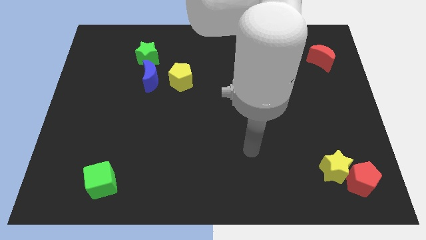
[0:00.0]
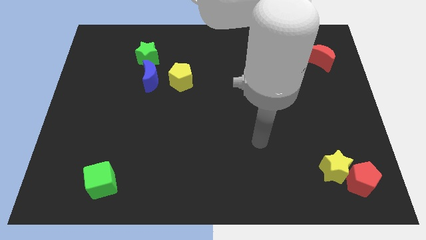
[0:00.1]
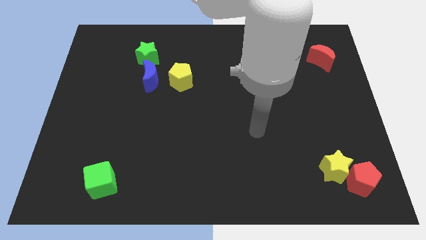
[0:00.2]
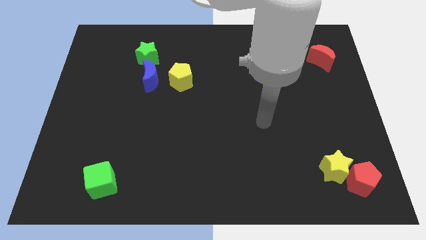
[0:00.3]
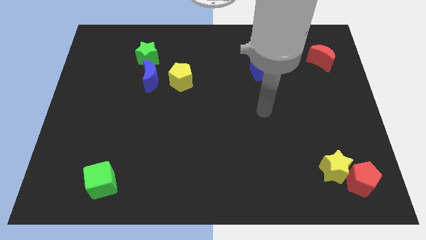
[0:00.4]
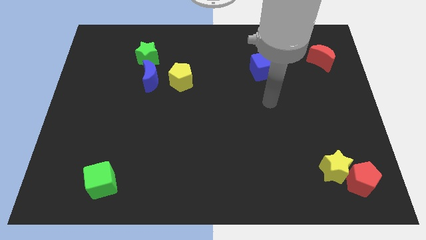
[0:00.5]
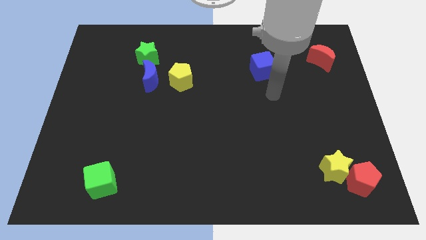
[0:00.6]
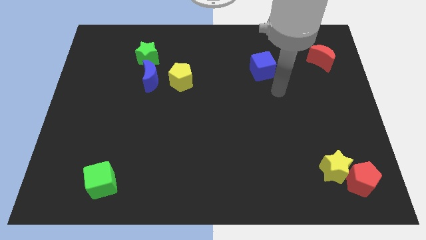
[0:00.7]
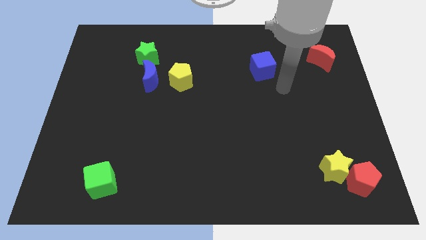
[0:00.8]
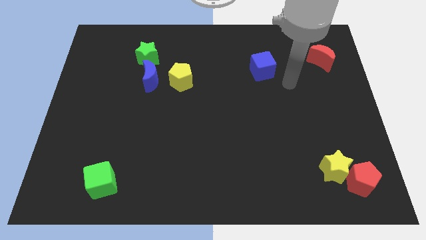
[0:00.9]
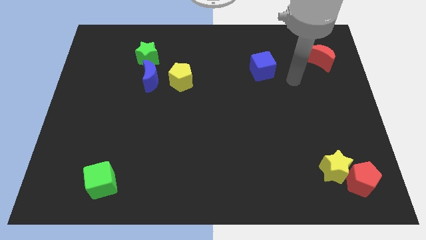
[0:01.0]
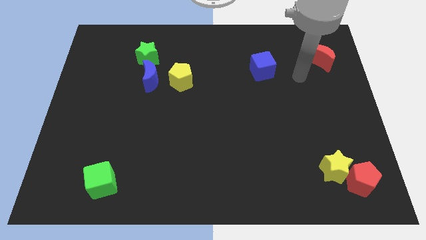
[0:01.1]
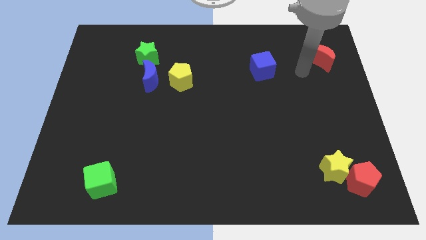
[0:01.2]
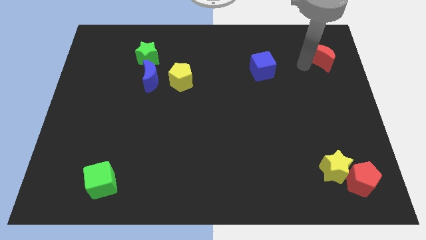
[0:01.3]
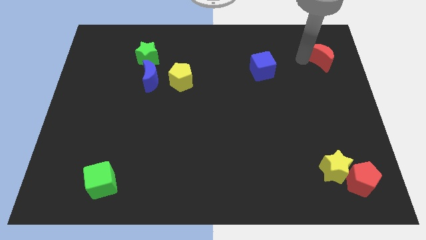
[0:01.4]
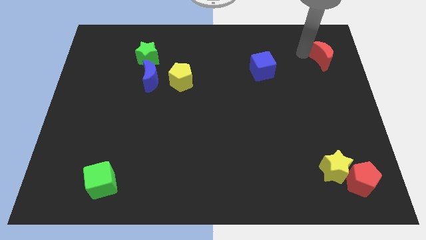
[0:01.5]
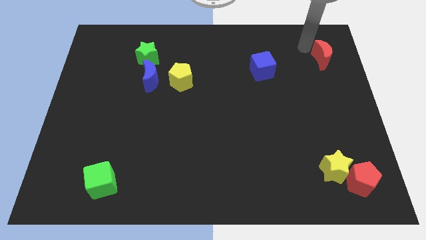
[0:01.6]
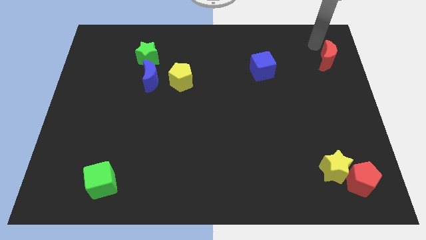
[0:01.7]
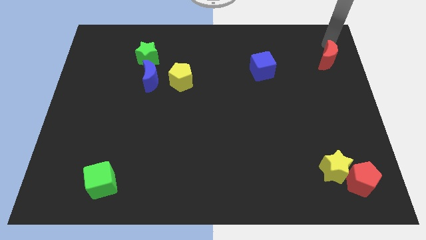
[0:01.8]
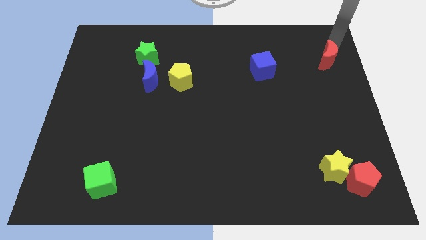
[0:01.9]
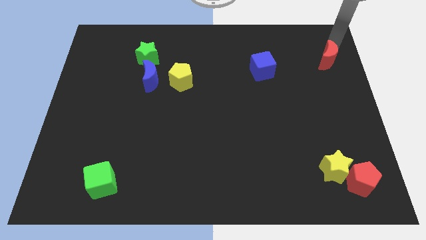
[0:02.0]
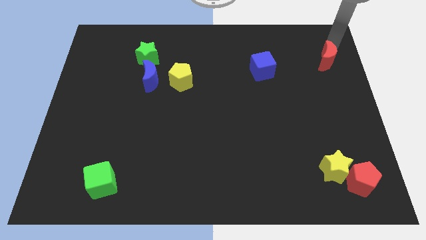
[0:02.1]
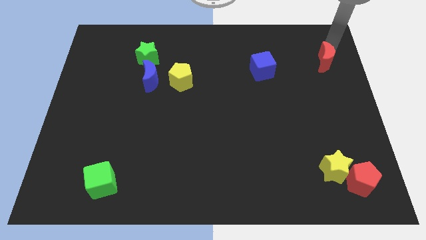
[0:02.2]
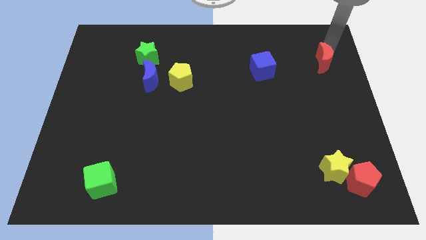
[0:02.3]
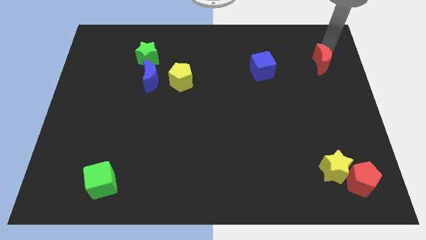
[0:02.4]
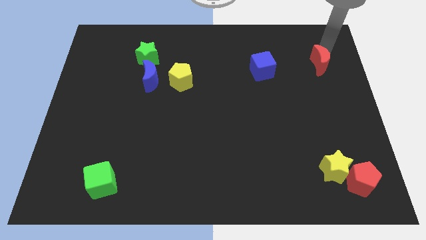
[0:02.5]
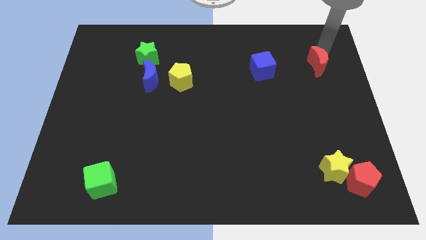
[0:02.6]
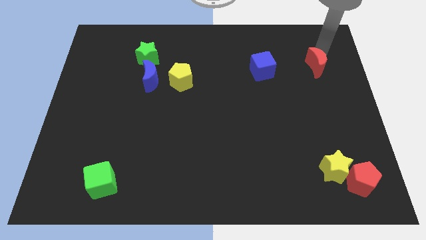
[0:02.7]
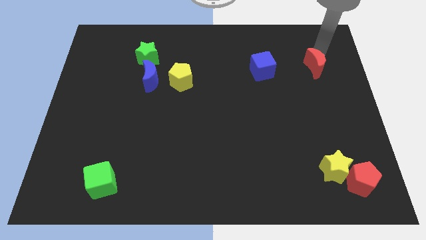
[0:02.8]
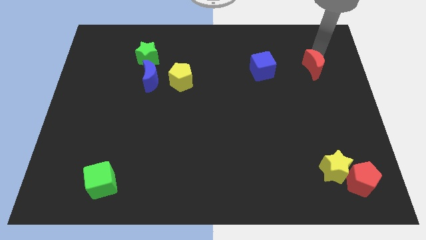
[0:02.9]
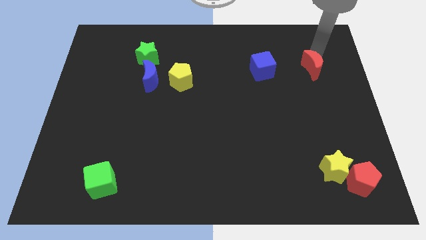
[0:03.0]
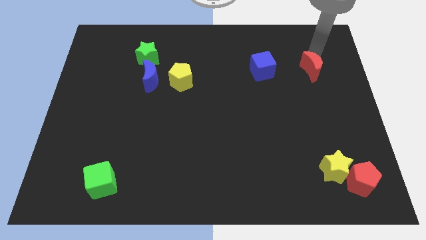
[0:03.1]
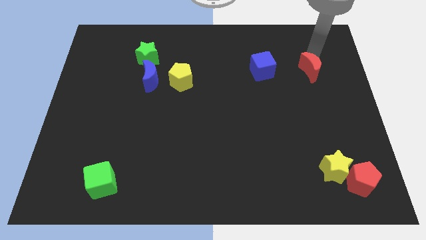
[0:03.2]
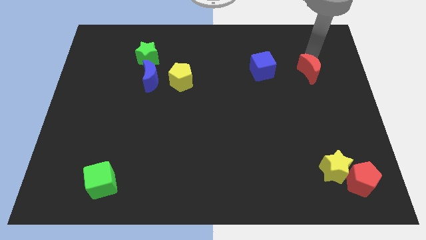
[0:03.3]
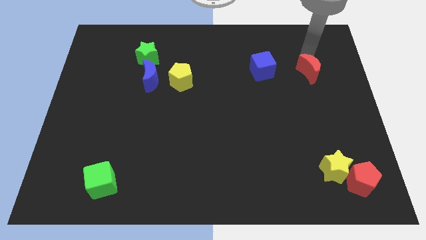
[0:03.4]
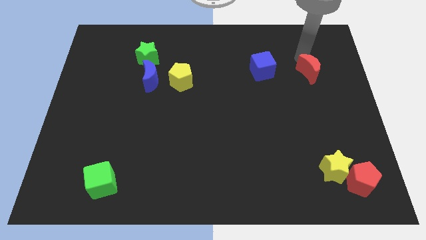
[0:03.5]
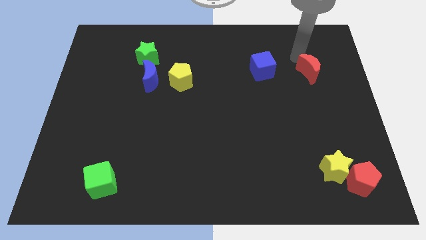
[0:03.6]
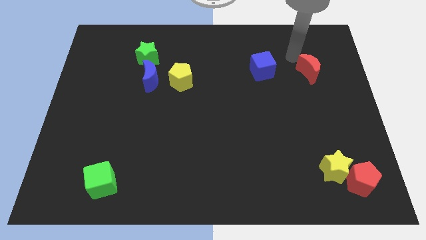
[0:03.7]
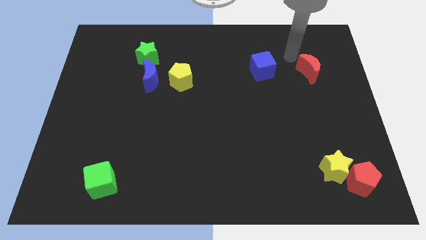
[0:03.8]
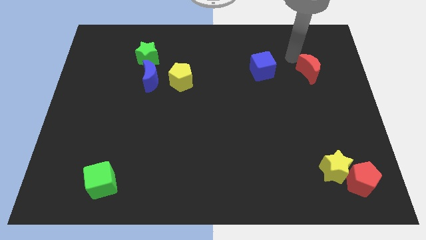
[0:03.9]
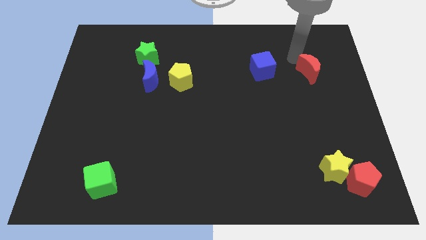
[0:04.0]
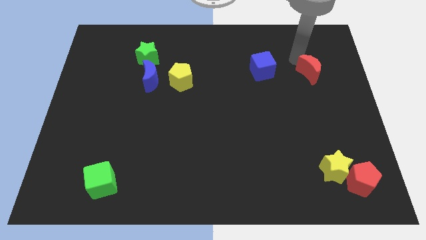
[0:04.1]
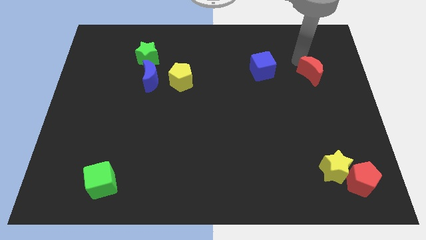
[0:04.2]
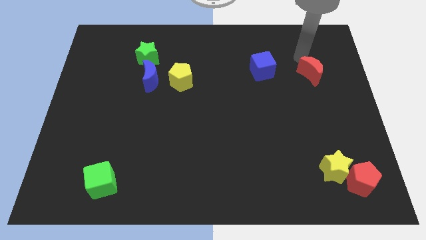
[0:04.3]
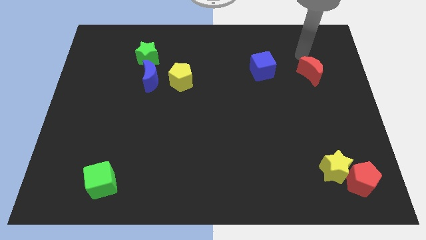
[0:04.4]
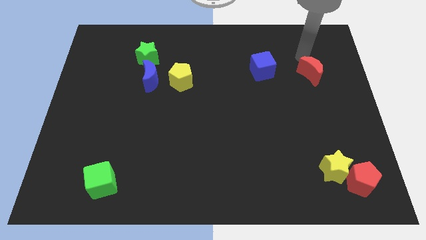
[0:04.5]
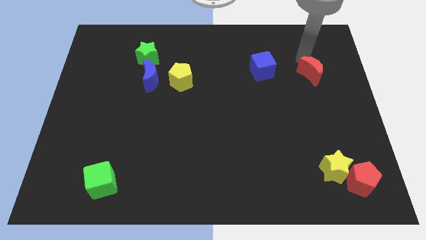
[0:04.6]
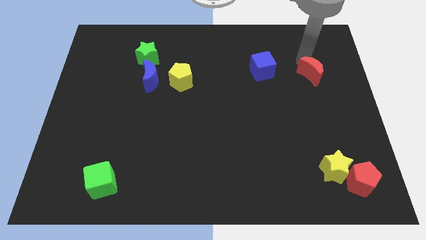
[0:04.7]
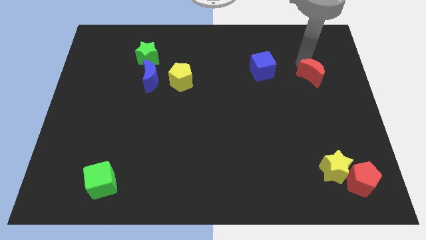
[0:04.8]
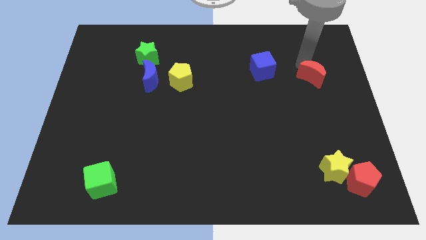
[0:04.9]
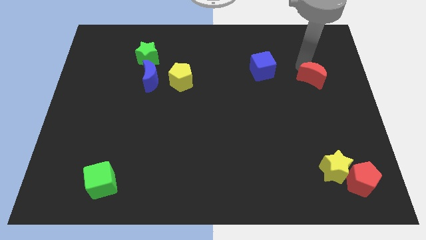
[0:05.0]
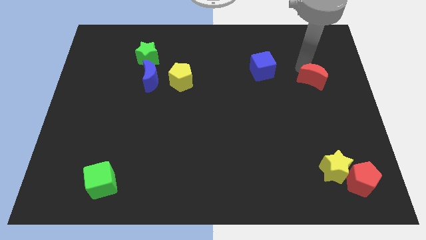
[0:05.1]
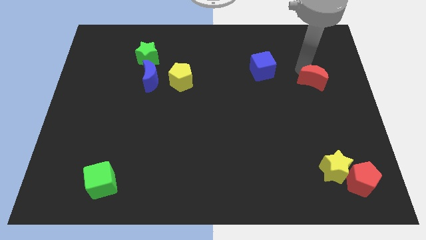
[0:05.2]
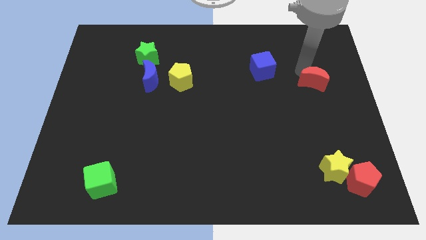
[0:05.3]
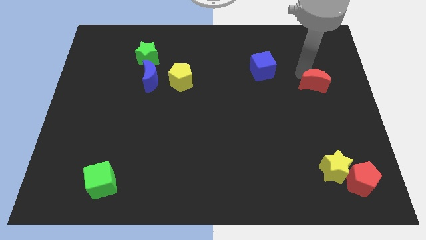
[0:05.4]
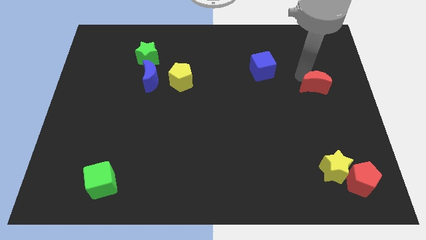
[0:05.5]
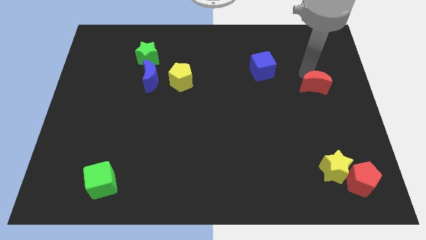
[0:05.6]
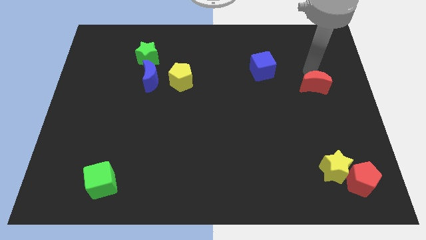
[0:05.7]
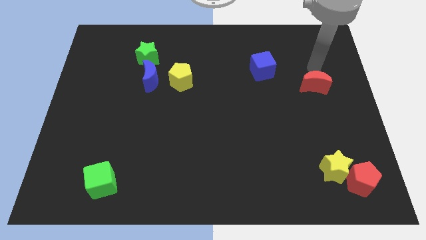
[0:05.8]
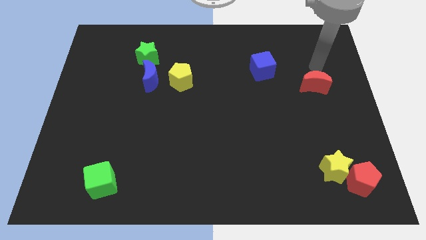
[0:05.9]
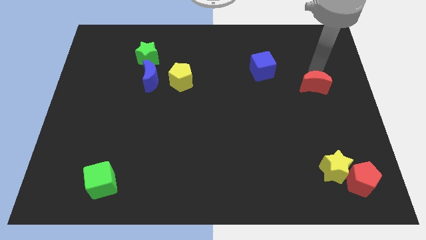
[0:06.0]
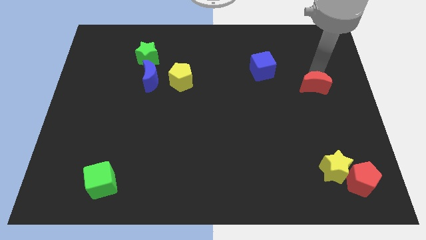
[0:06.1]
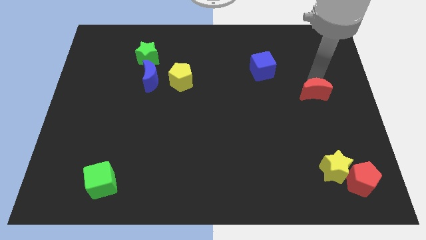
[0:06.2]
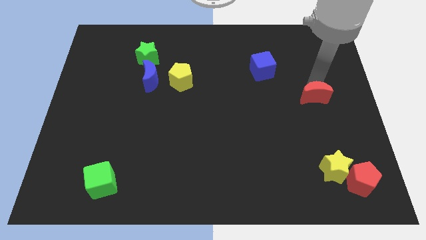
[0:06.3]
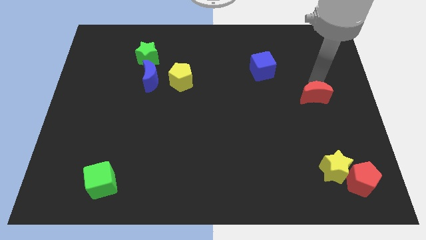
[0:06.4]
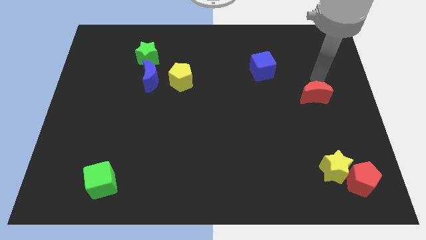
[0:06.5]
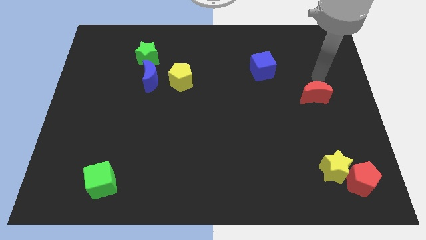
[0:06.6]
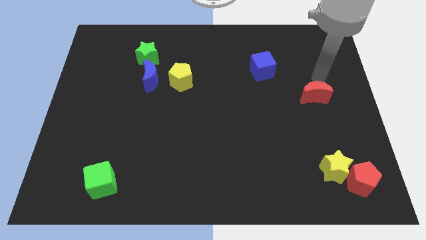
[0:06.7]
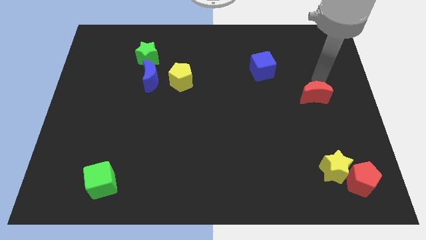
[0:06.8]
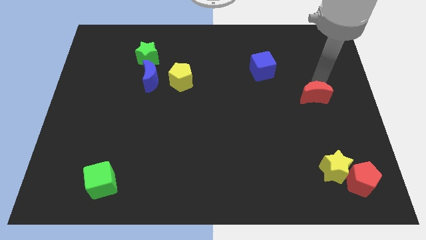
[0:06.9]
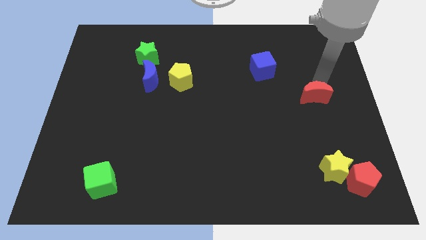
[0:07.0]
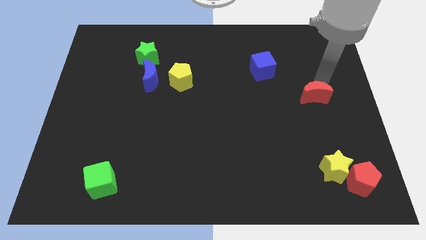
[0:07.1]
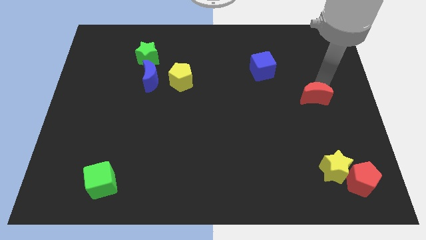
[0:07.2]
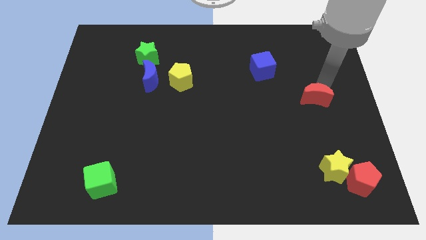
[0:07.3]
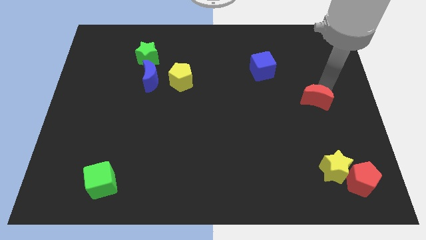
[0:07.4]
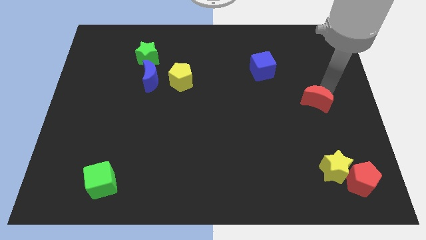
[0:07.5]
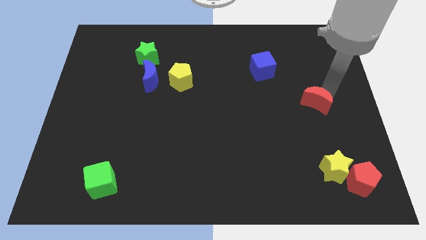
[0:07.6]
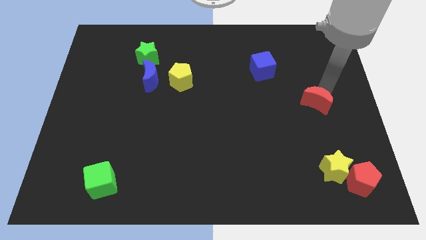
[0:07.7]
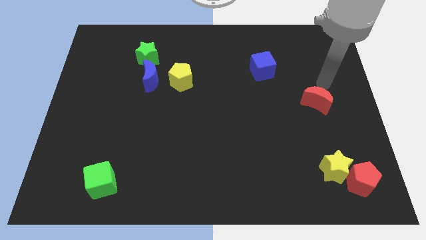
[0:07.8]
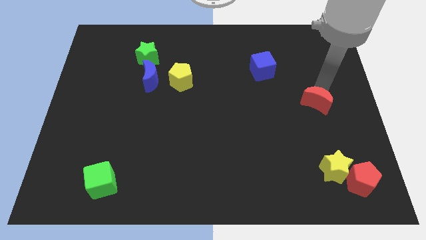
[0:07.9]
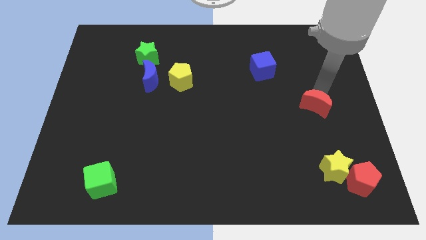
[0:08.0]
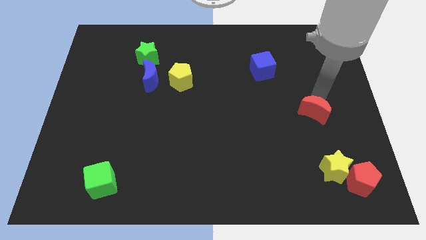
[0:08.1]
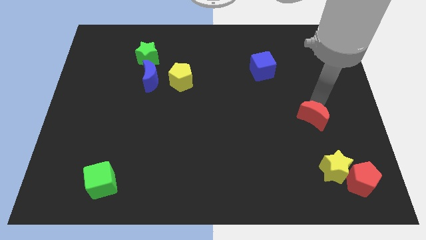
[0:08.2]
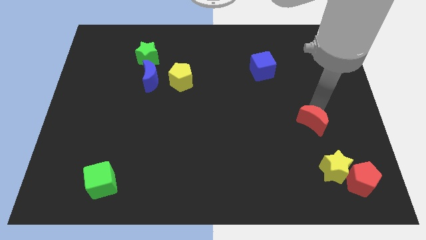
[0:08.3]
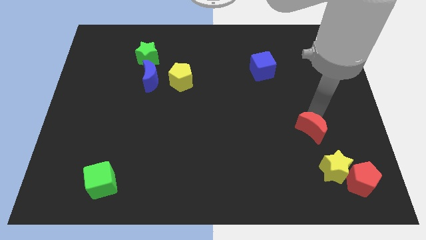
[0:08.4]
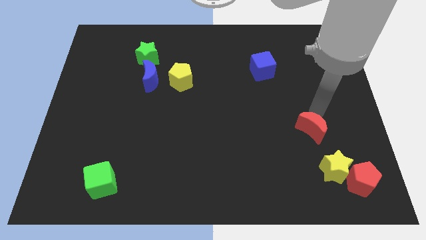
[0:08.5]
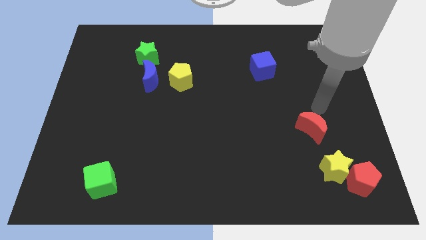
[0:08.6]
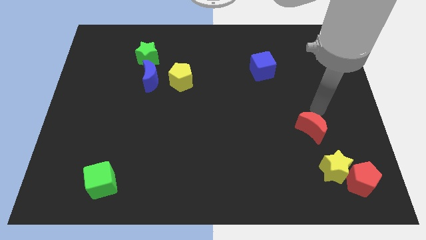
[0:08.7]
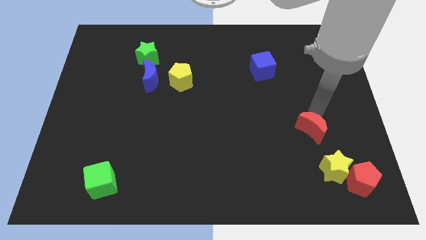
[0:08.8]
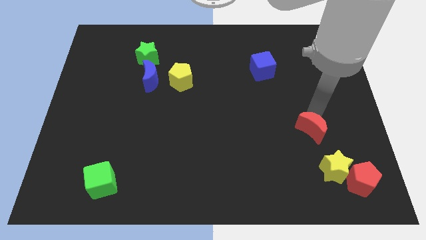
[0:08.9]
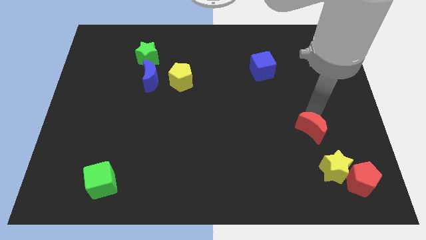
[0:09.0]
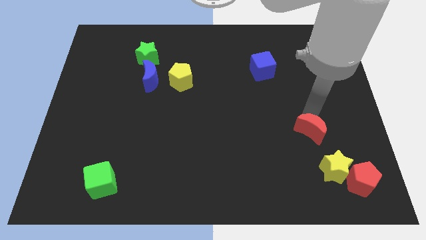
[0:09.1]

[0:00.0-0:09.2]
put the red moon to the top left side of the yellow star
